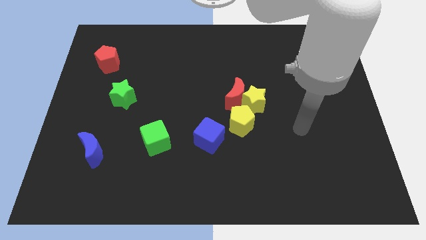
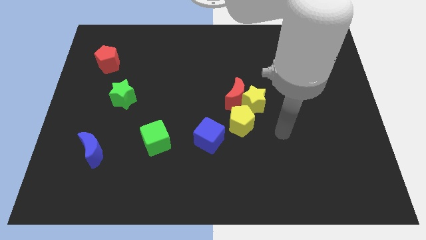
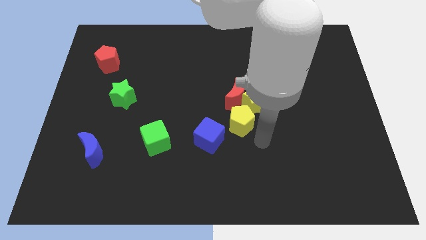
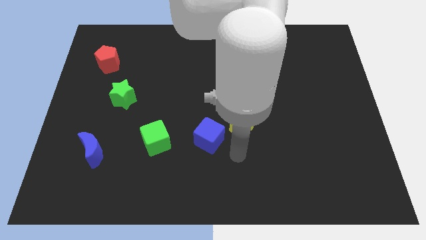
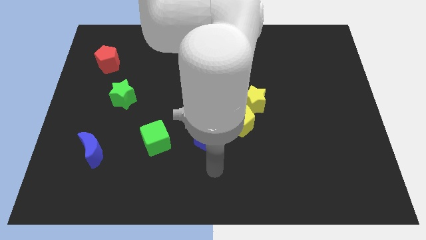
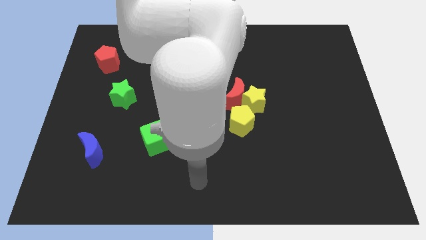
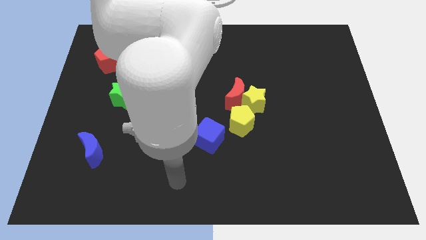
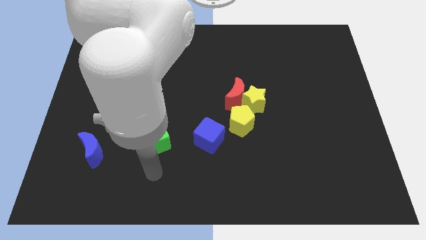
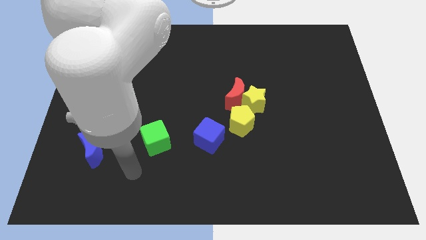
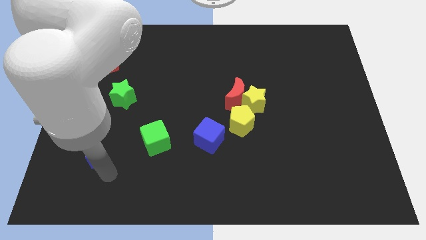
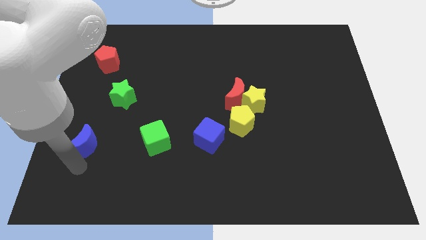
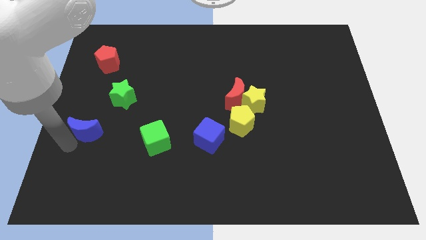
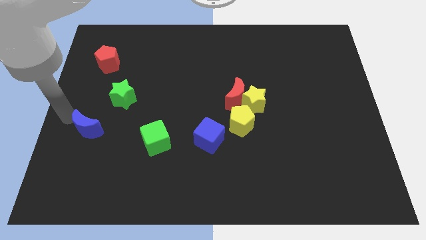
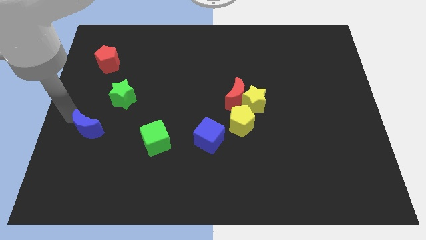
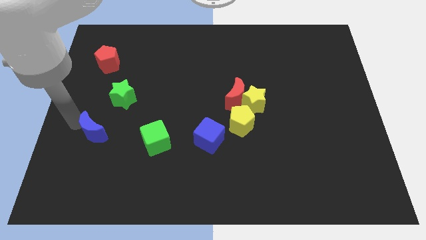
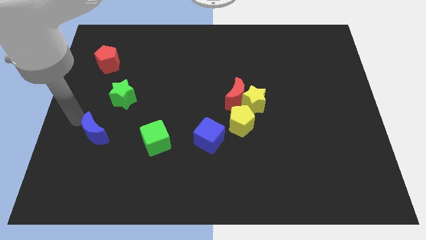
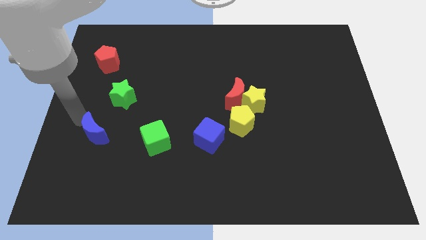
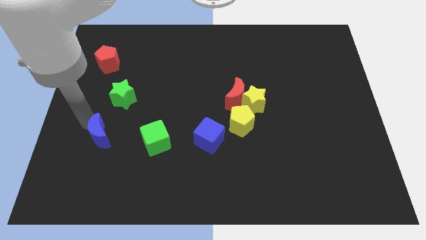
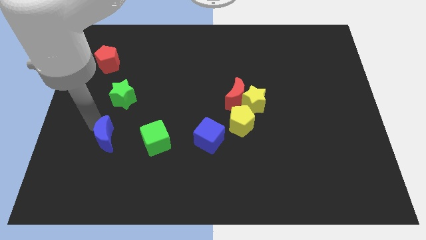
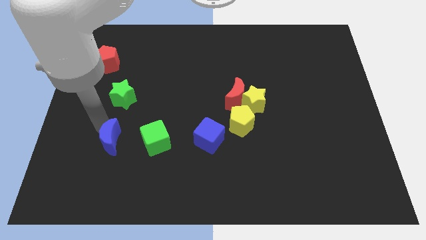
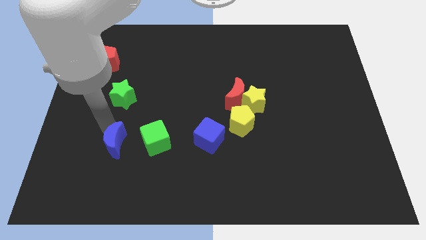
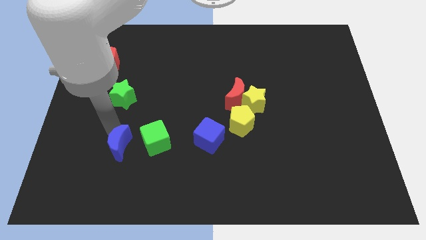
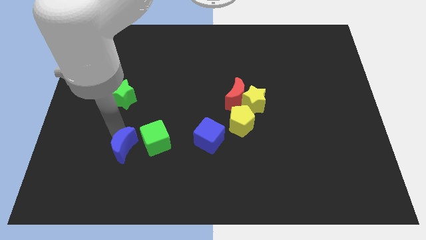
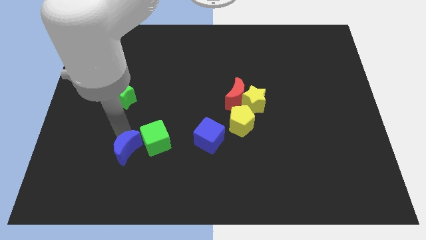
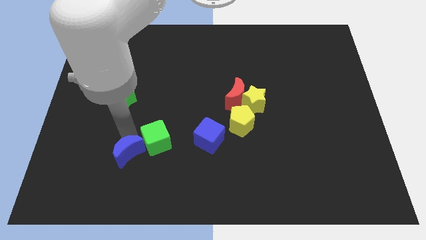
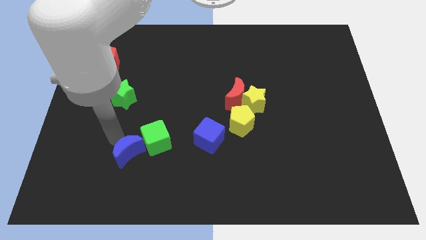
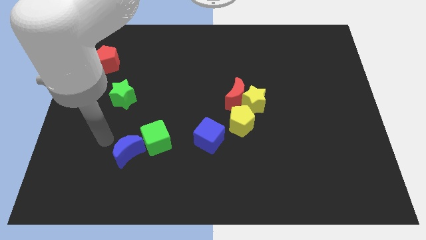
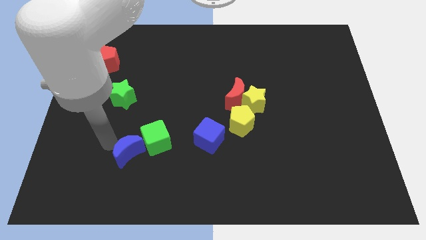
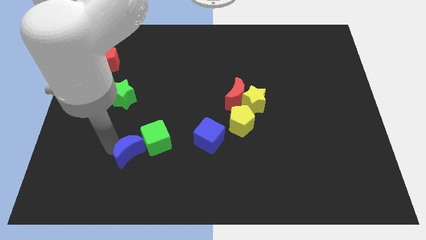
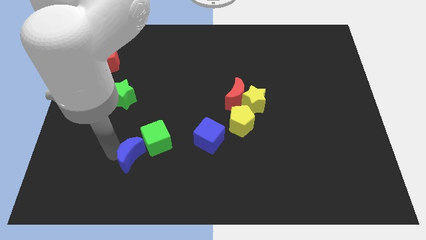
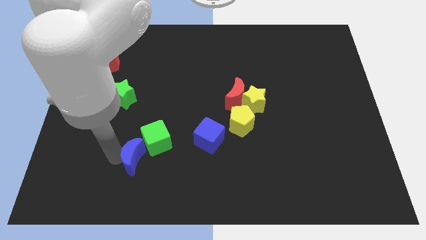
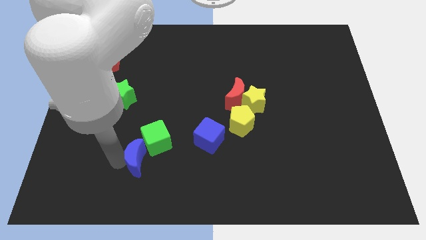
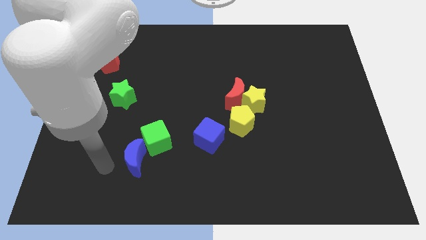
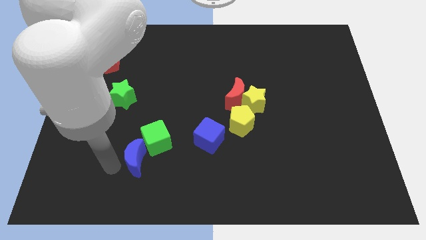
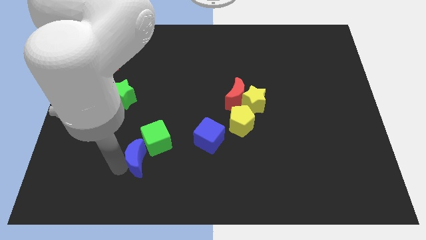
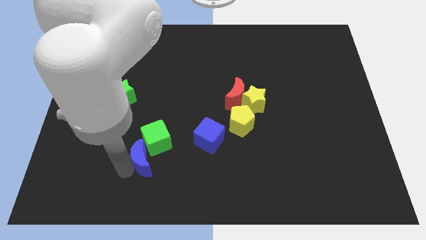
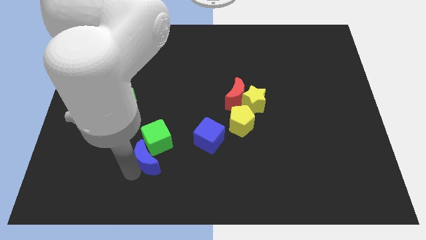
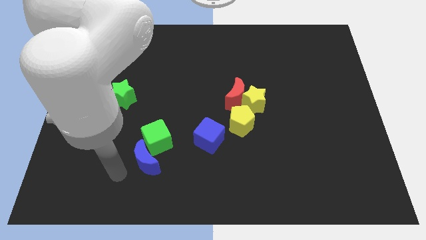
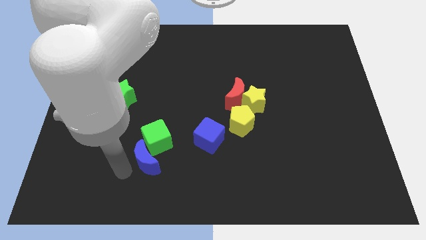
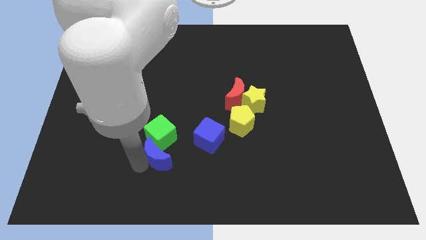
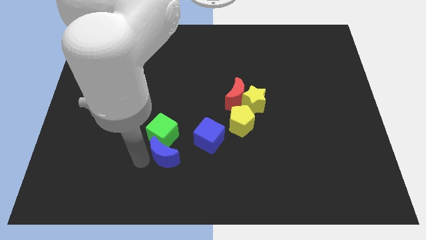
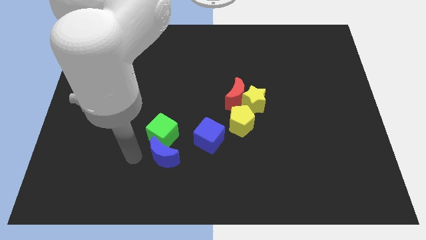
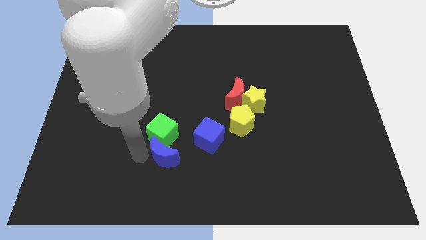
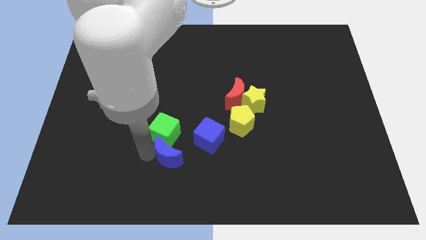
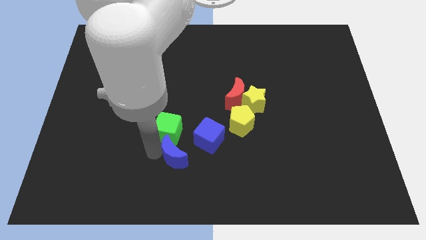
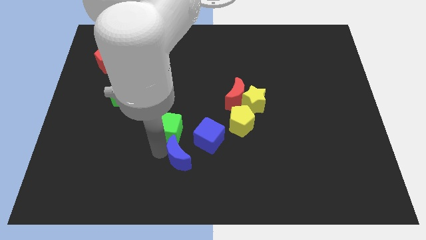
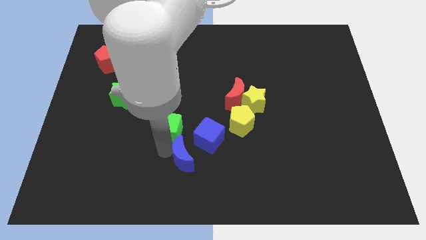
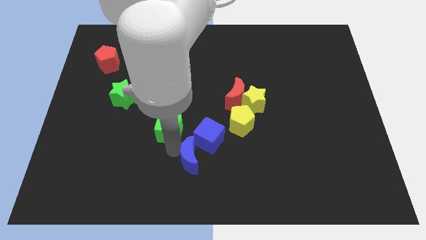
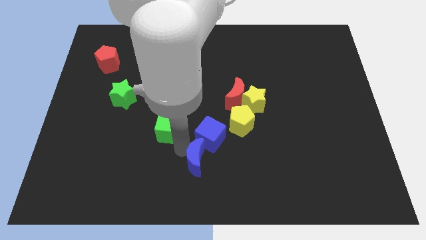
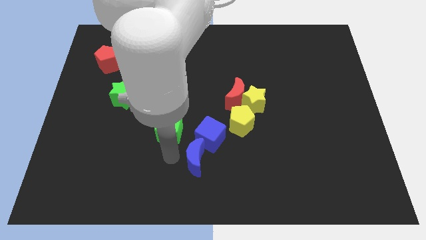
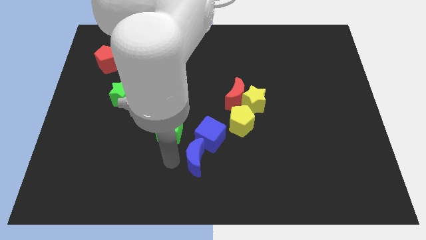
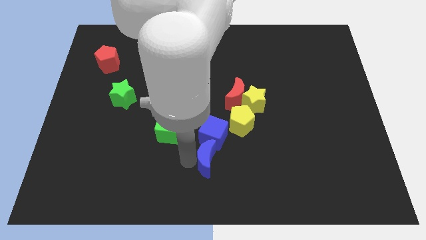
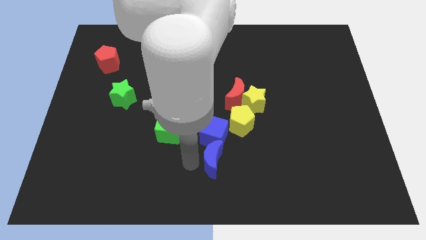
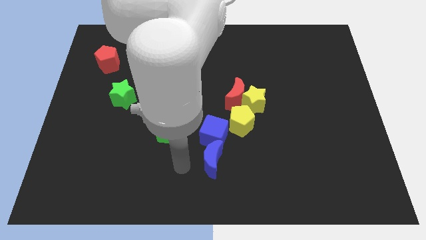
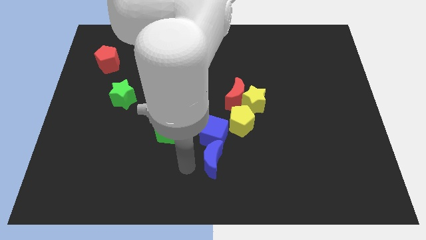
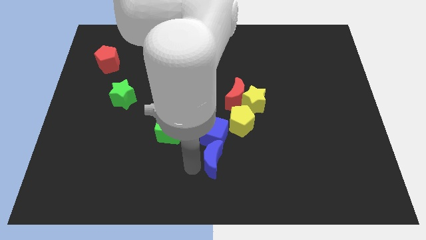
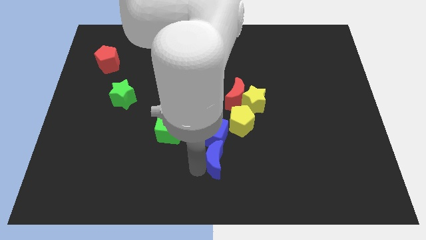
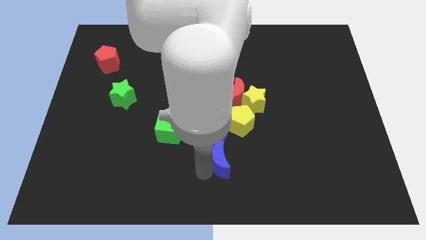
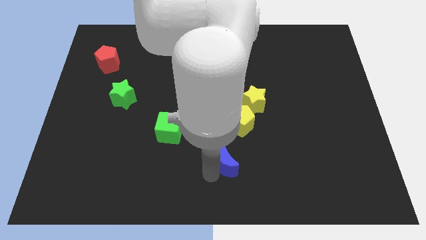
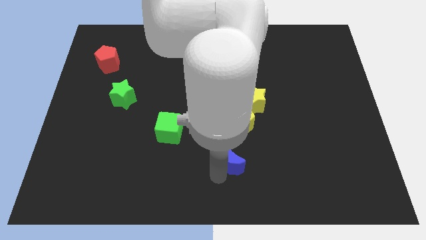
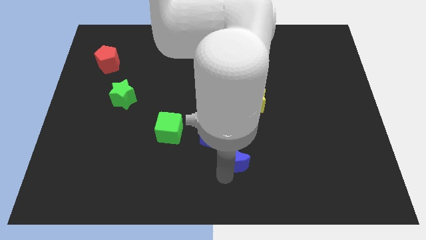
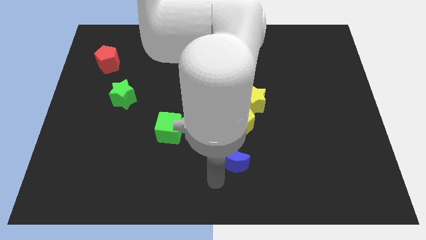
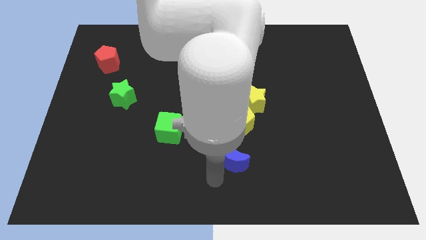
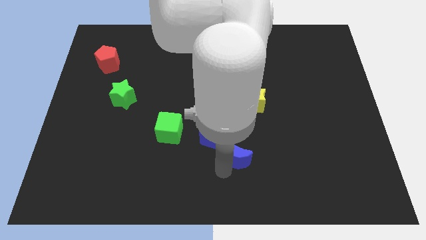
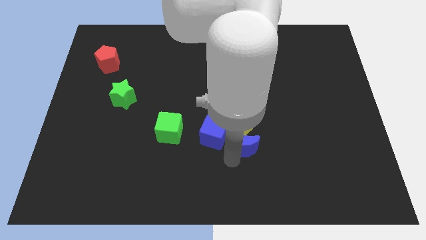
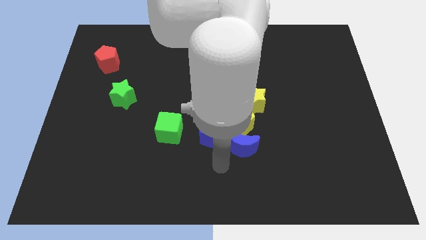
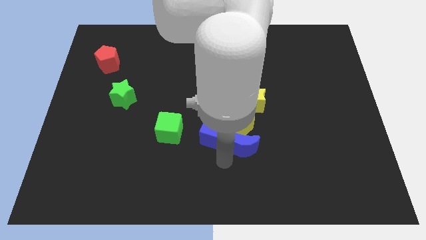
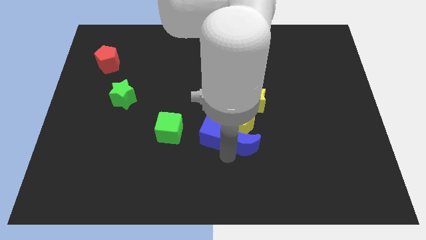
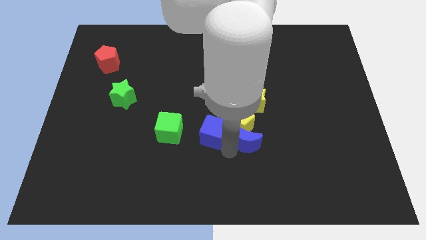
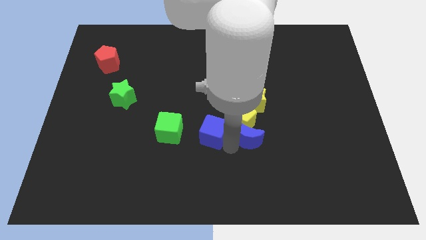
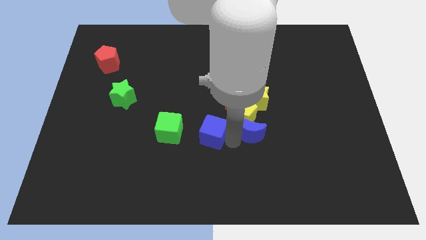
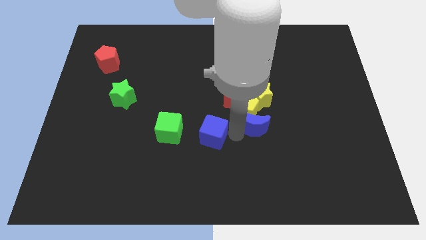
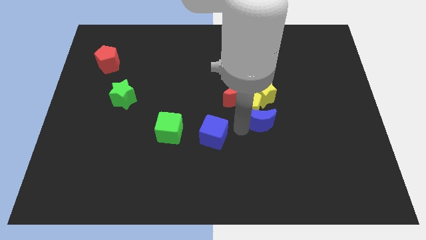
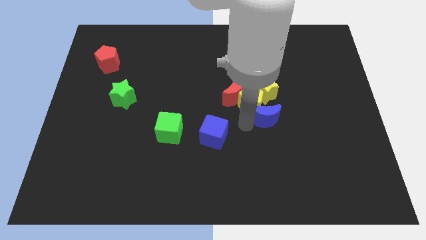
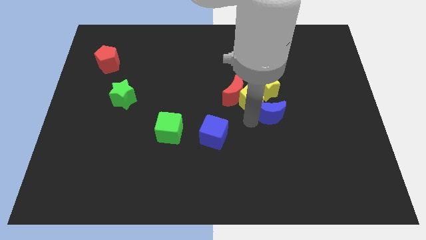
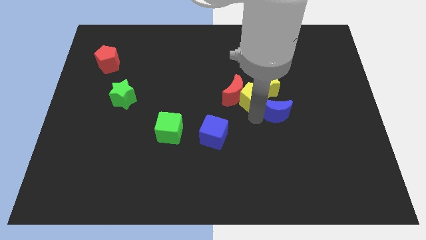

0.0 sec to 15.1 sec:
slide the blue moon diagonally down and to the right of the yellow star
